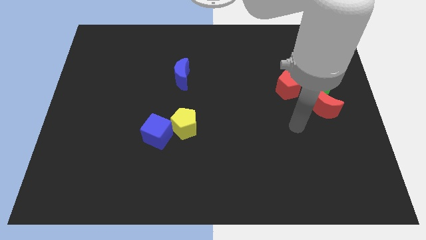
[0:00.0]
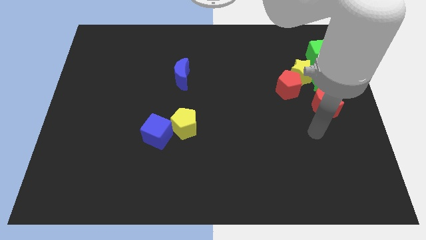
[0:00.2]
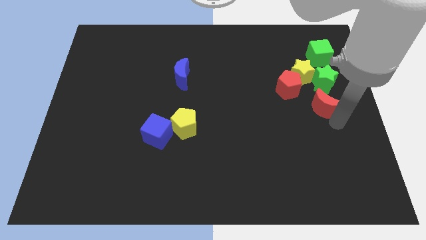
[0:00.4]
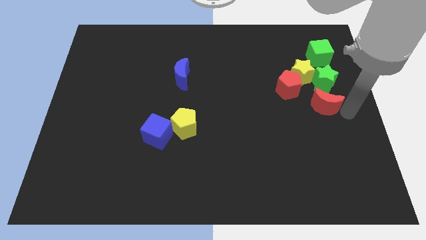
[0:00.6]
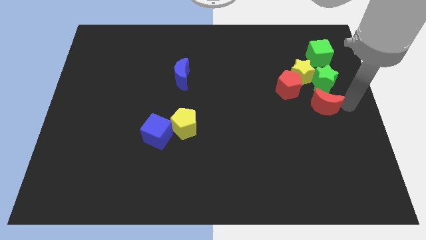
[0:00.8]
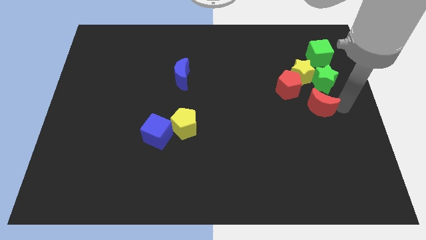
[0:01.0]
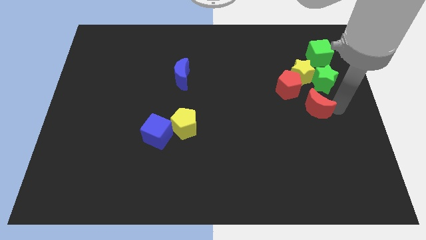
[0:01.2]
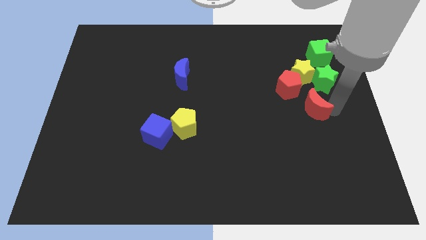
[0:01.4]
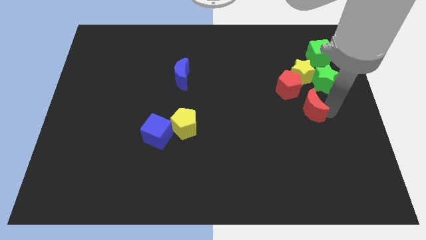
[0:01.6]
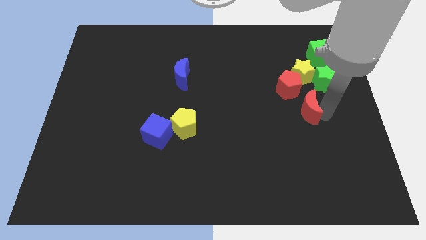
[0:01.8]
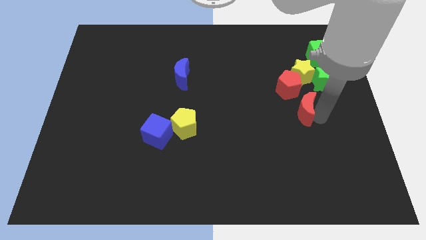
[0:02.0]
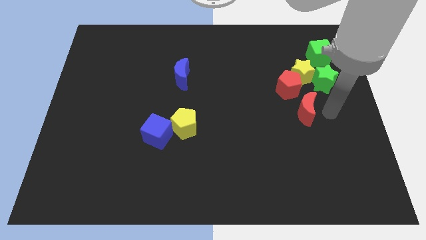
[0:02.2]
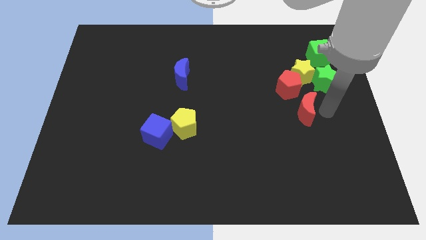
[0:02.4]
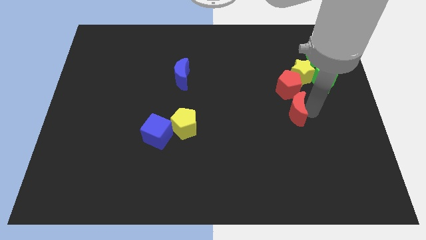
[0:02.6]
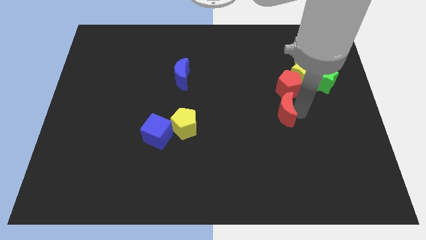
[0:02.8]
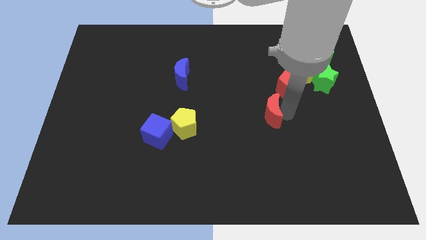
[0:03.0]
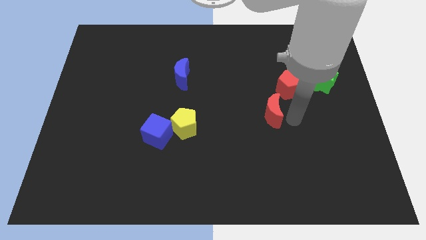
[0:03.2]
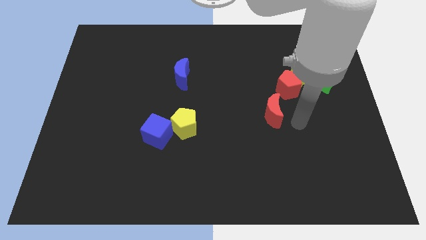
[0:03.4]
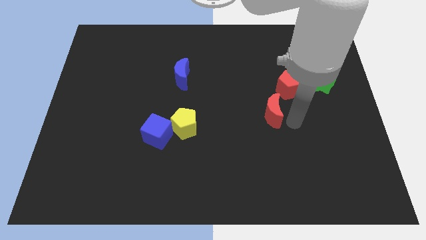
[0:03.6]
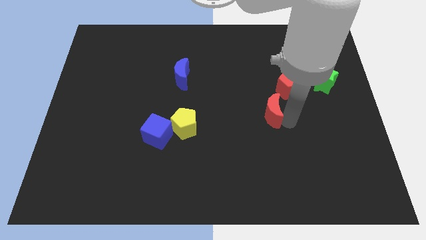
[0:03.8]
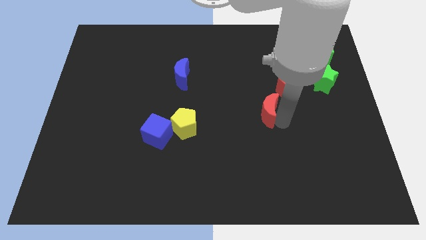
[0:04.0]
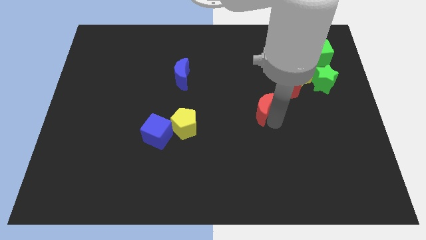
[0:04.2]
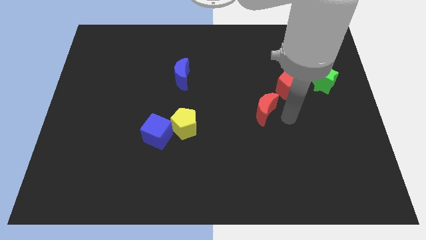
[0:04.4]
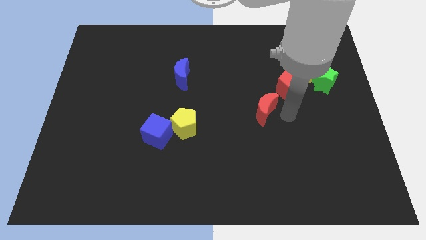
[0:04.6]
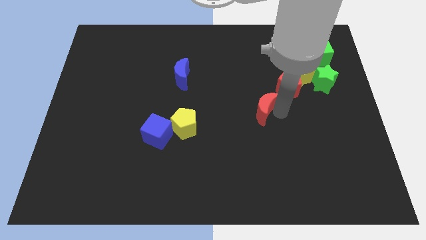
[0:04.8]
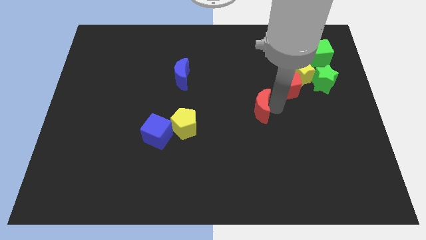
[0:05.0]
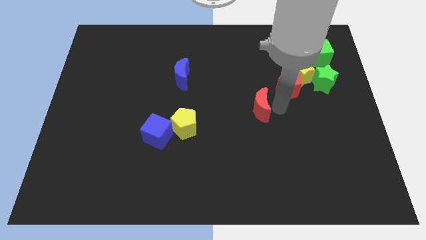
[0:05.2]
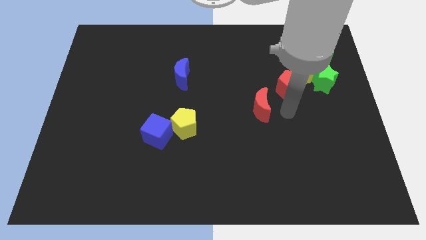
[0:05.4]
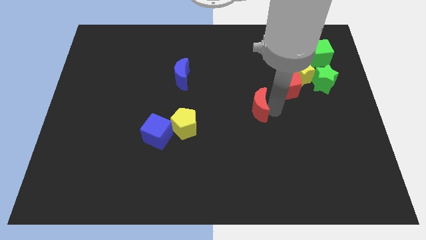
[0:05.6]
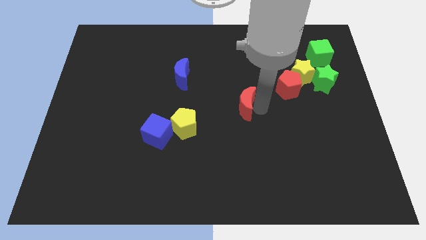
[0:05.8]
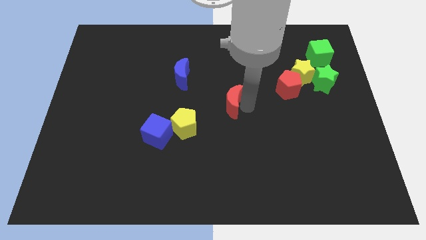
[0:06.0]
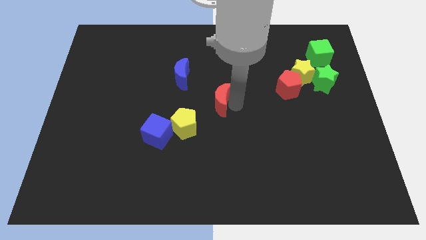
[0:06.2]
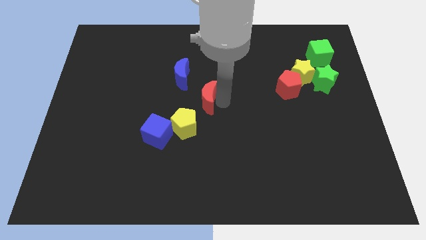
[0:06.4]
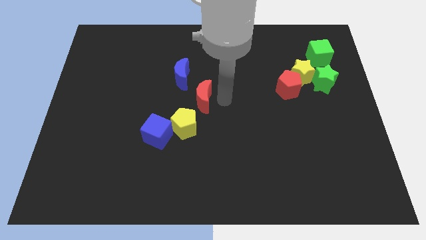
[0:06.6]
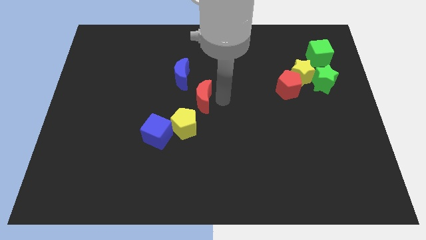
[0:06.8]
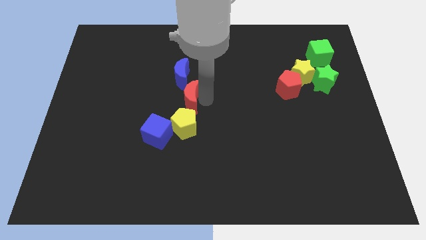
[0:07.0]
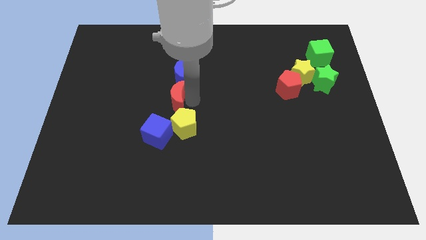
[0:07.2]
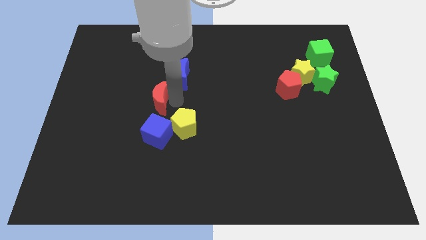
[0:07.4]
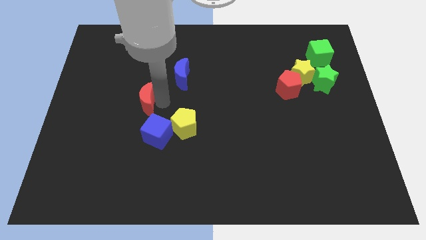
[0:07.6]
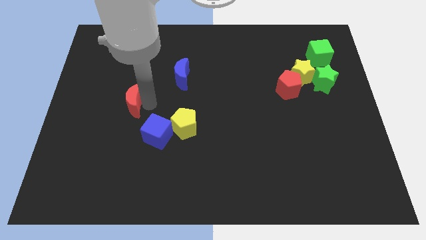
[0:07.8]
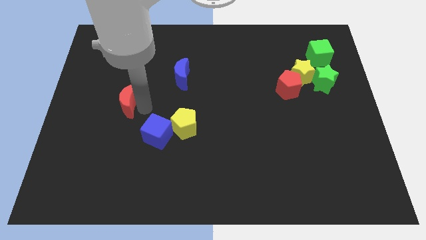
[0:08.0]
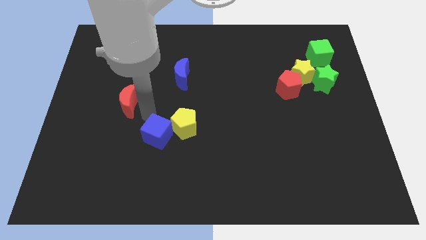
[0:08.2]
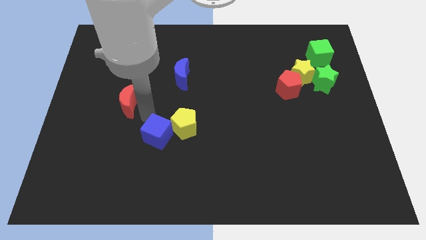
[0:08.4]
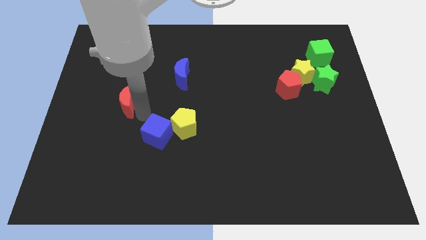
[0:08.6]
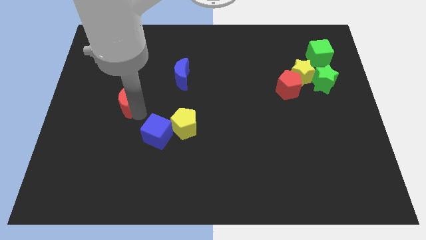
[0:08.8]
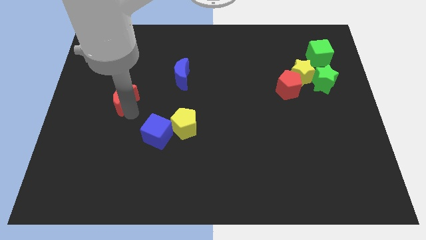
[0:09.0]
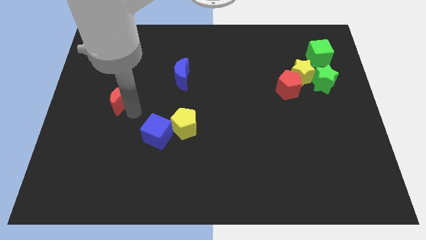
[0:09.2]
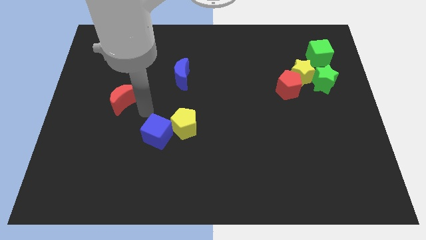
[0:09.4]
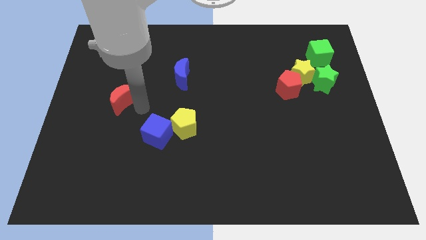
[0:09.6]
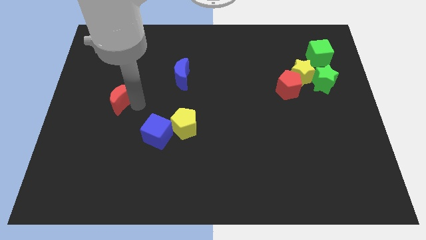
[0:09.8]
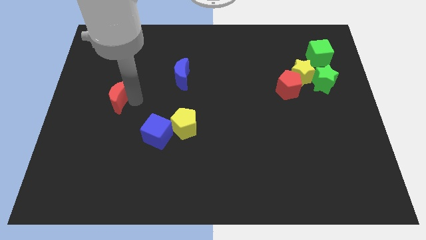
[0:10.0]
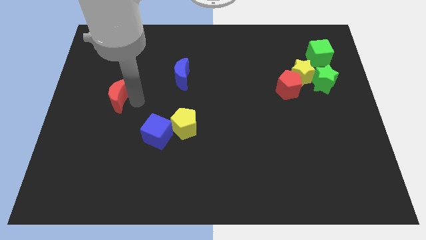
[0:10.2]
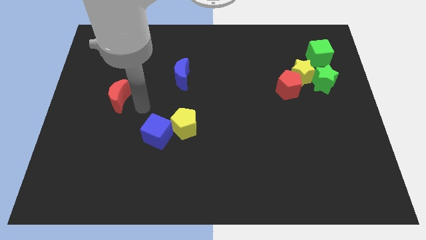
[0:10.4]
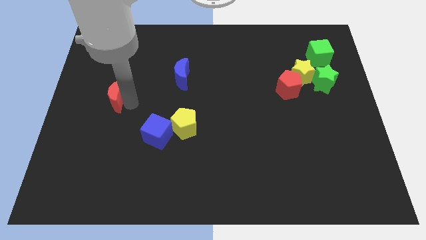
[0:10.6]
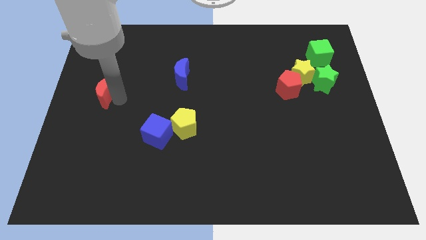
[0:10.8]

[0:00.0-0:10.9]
move the red moon to the center left
